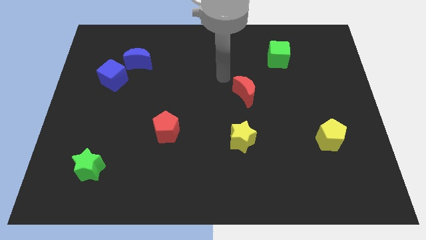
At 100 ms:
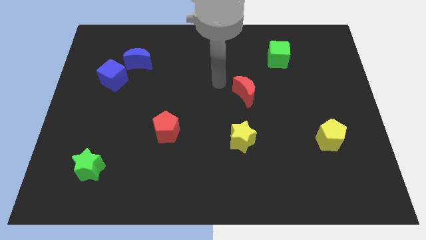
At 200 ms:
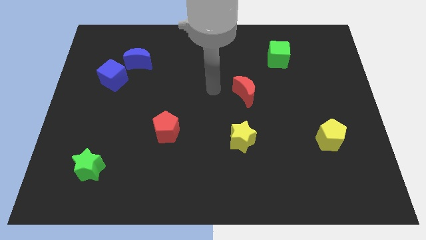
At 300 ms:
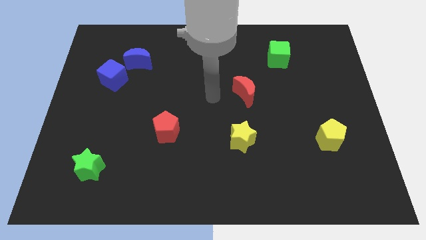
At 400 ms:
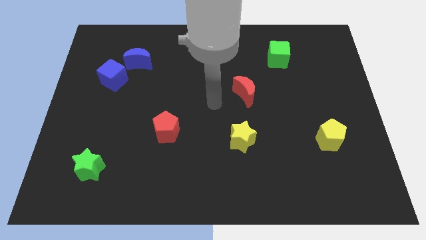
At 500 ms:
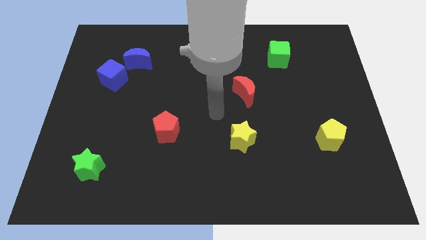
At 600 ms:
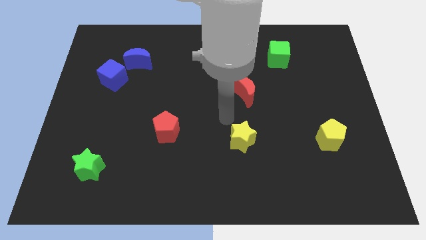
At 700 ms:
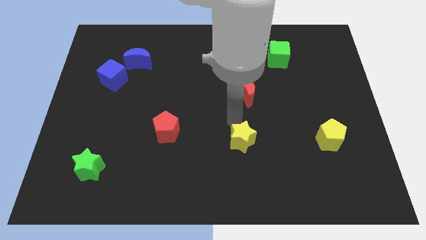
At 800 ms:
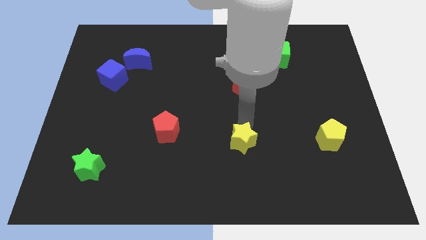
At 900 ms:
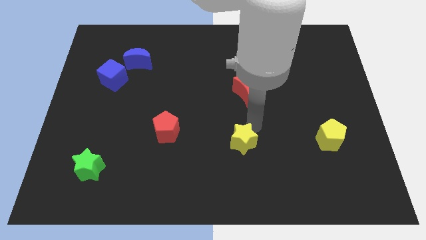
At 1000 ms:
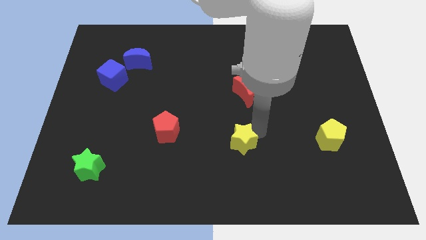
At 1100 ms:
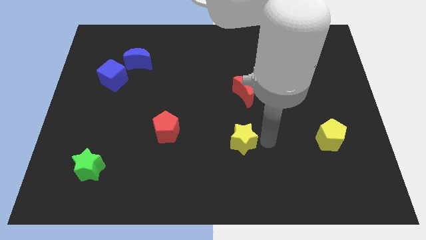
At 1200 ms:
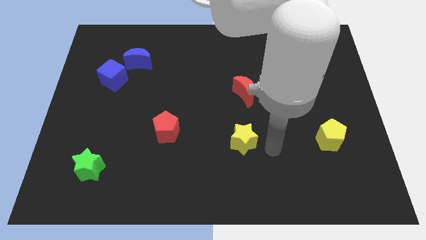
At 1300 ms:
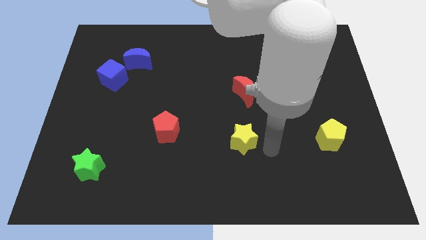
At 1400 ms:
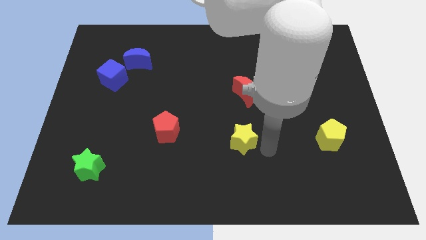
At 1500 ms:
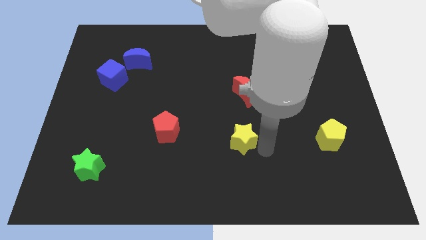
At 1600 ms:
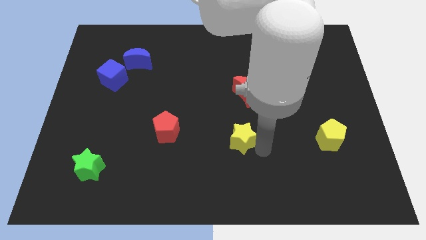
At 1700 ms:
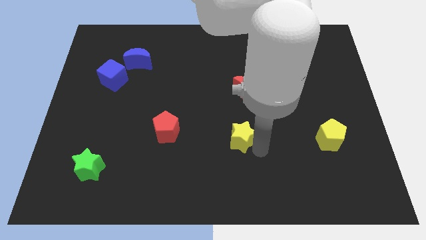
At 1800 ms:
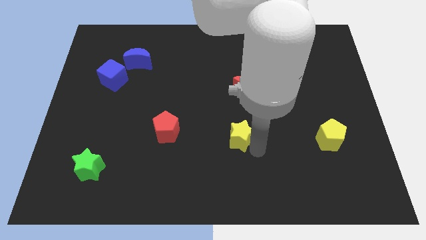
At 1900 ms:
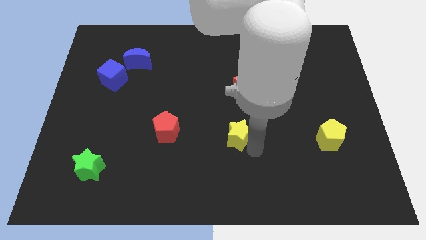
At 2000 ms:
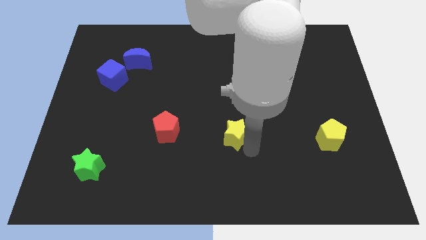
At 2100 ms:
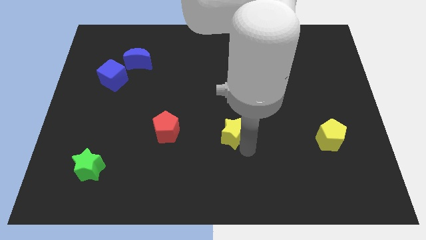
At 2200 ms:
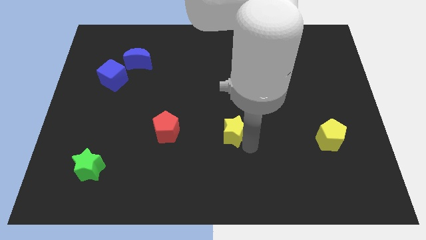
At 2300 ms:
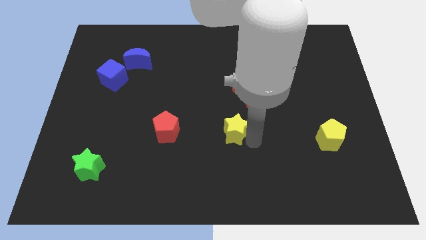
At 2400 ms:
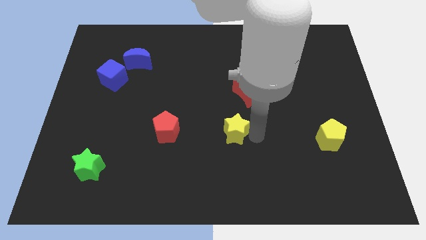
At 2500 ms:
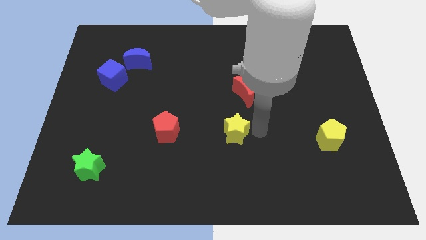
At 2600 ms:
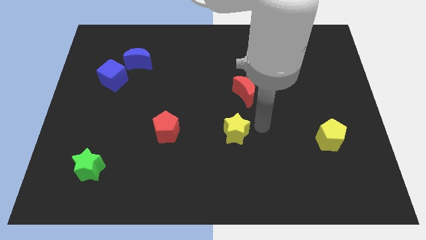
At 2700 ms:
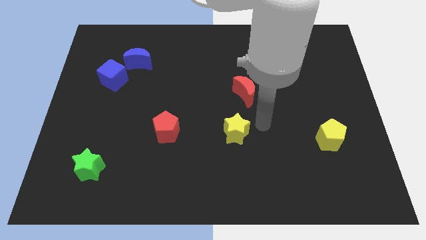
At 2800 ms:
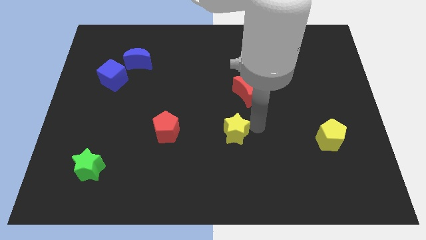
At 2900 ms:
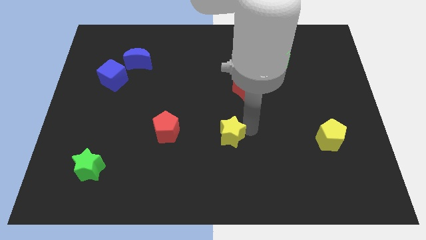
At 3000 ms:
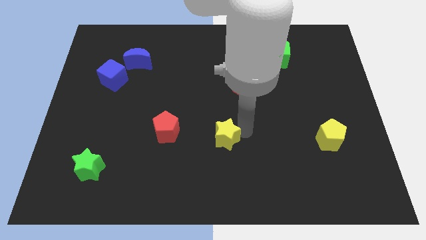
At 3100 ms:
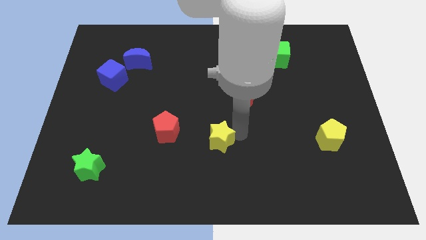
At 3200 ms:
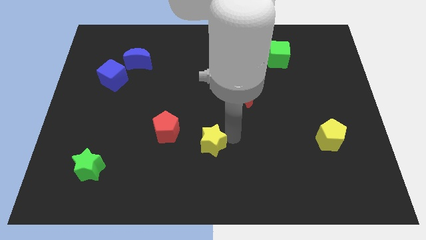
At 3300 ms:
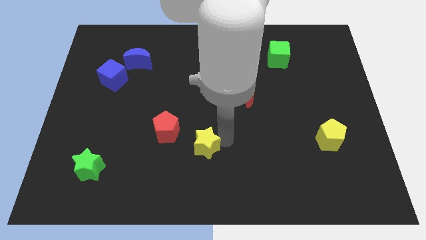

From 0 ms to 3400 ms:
slightly push the yellow star to the left

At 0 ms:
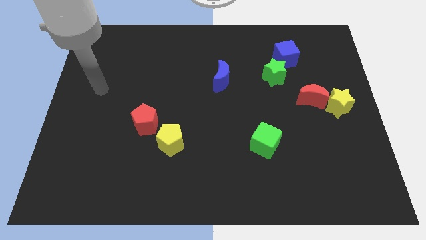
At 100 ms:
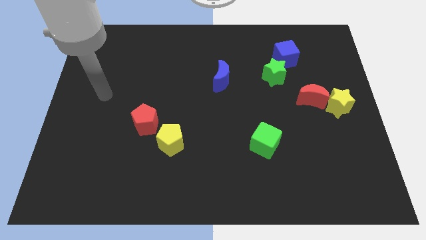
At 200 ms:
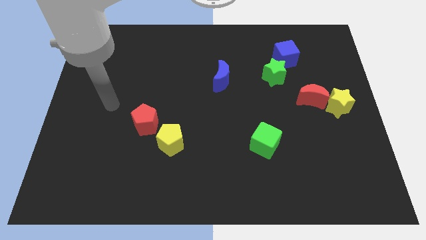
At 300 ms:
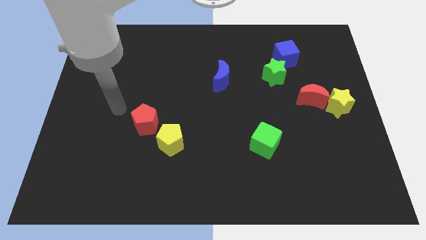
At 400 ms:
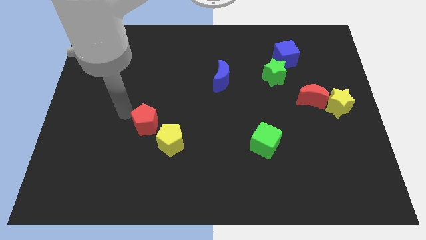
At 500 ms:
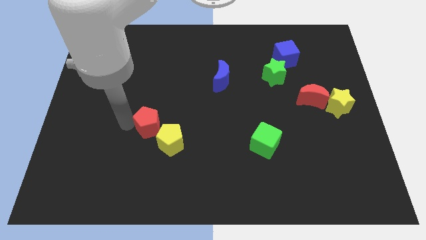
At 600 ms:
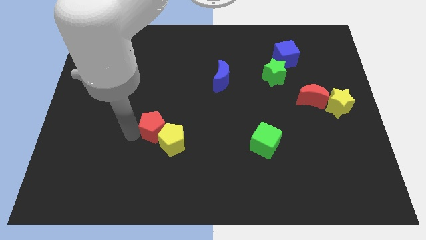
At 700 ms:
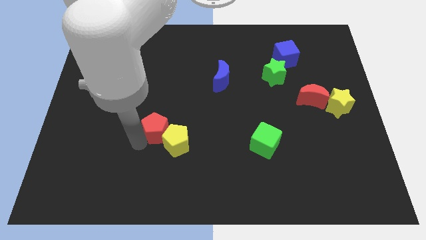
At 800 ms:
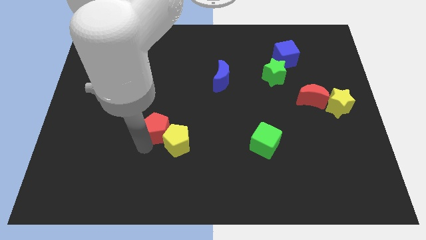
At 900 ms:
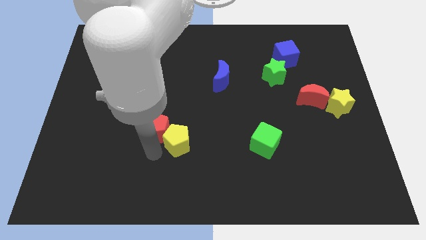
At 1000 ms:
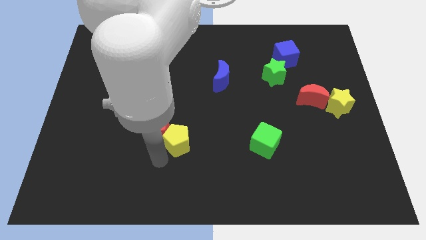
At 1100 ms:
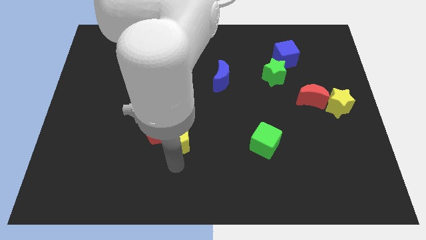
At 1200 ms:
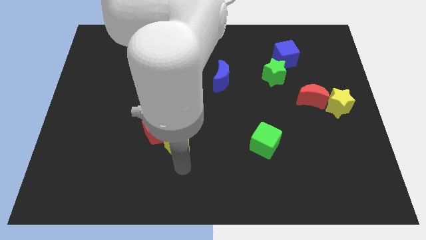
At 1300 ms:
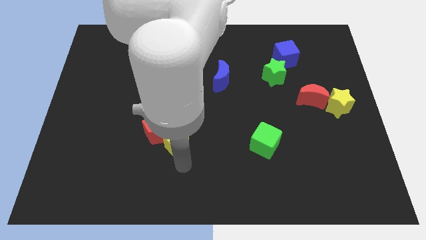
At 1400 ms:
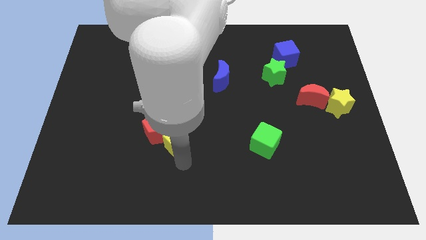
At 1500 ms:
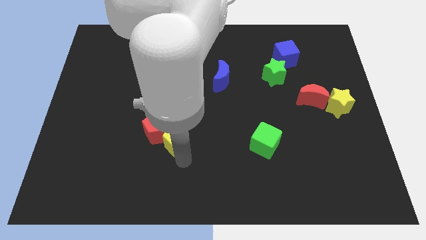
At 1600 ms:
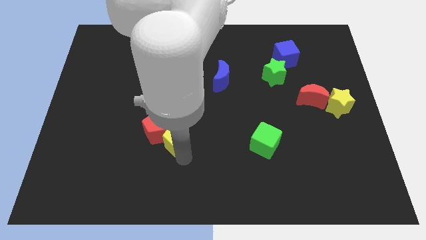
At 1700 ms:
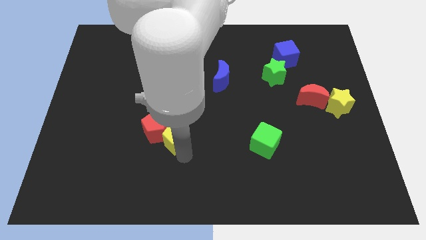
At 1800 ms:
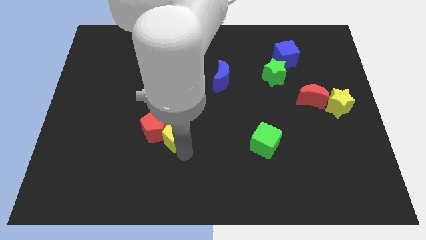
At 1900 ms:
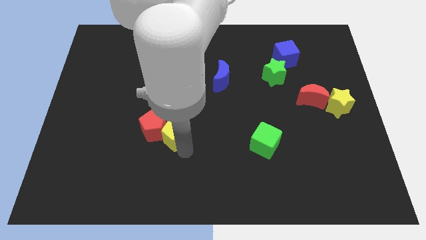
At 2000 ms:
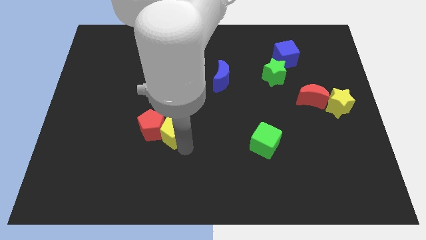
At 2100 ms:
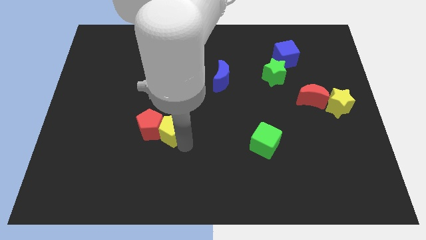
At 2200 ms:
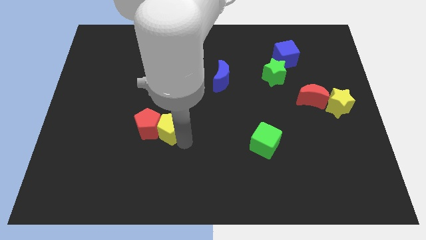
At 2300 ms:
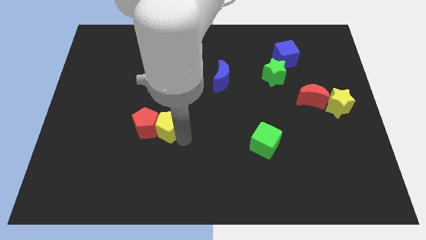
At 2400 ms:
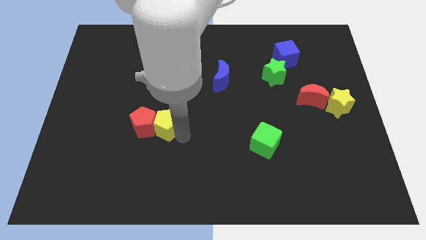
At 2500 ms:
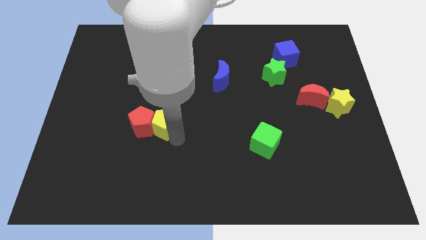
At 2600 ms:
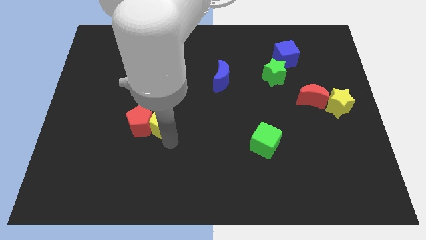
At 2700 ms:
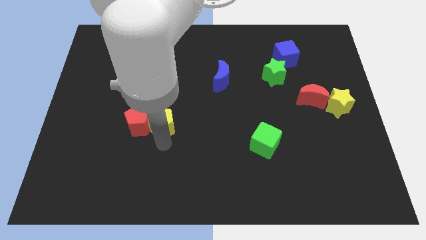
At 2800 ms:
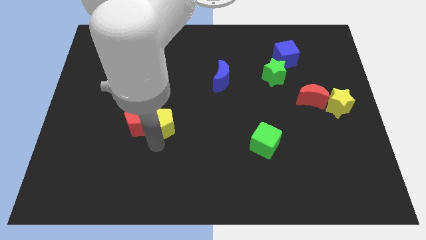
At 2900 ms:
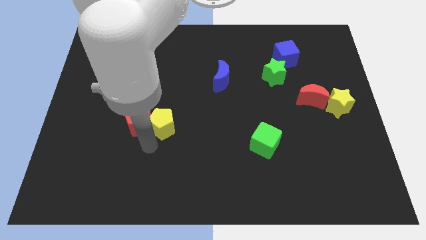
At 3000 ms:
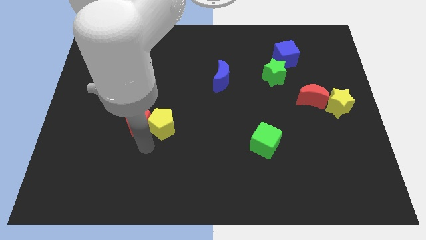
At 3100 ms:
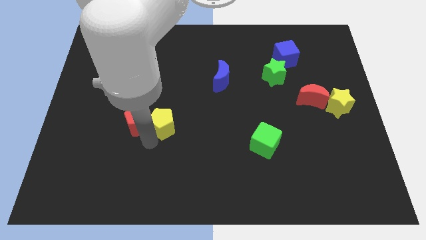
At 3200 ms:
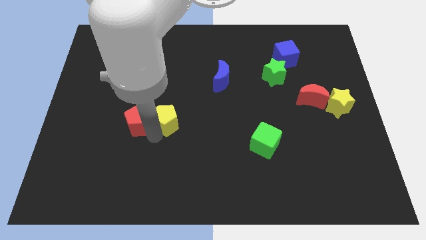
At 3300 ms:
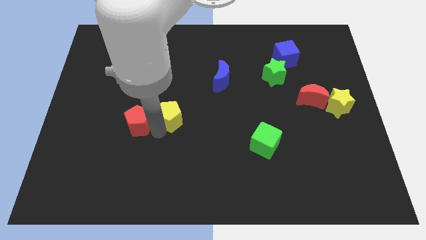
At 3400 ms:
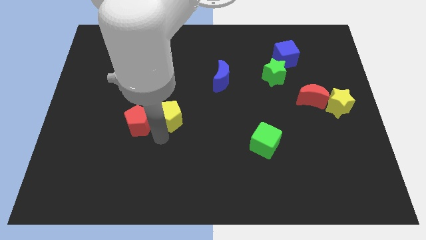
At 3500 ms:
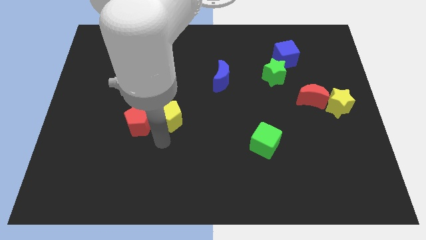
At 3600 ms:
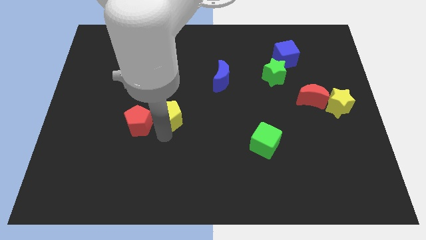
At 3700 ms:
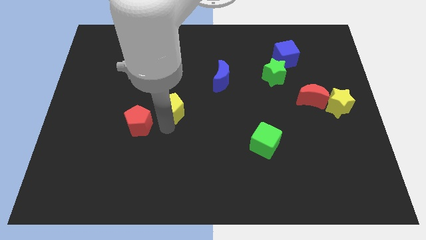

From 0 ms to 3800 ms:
move the yellow pentagon upwards a little bit

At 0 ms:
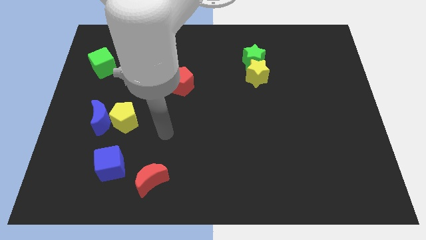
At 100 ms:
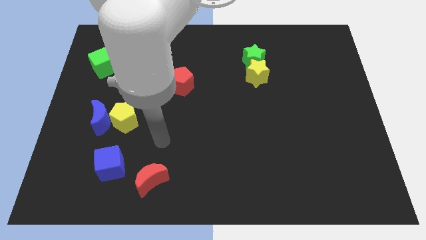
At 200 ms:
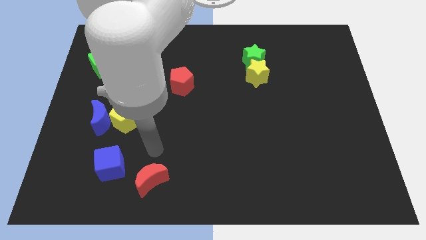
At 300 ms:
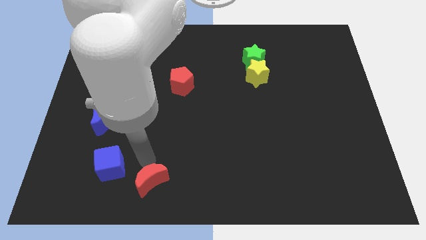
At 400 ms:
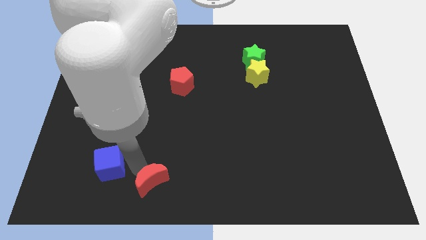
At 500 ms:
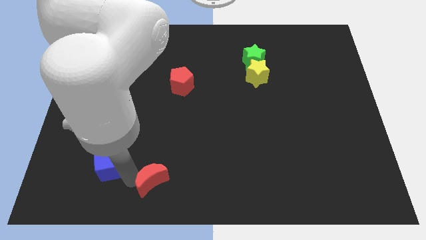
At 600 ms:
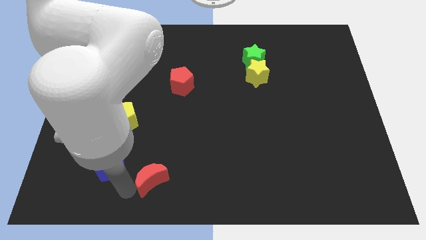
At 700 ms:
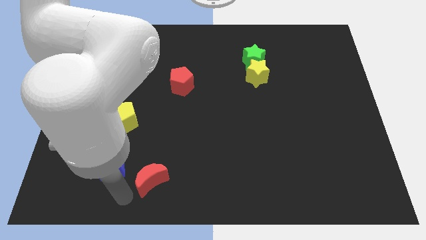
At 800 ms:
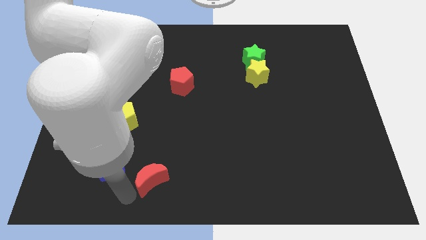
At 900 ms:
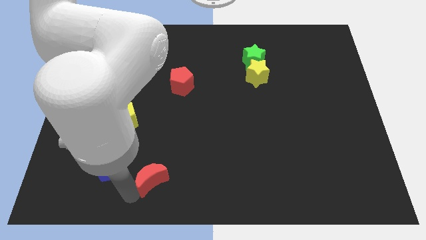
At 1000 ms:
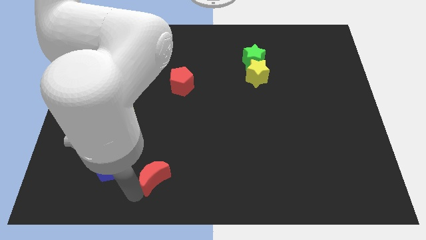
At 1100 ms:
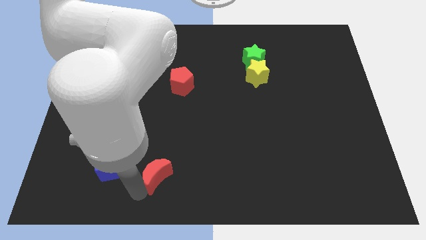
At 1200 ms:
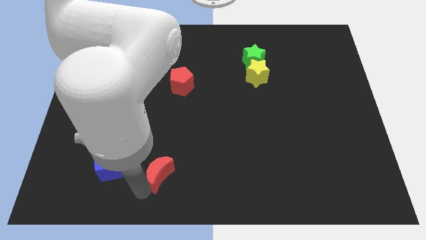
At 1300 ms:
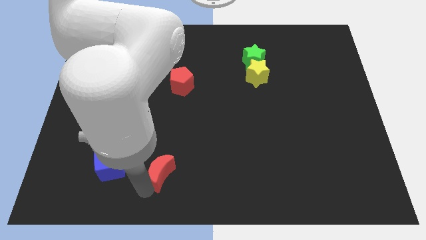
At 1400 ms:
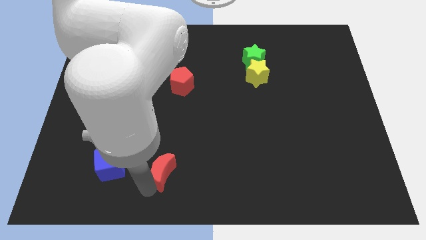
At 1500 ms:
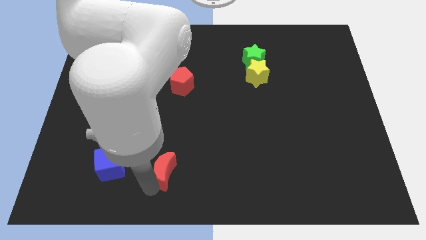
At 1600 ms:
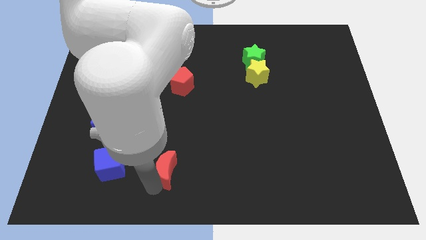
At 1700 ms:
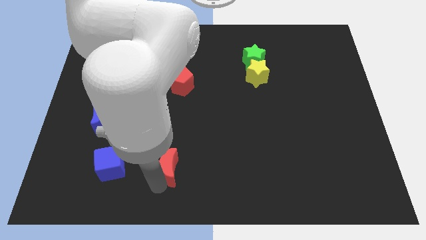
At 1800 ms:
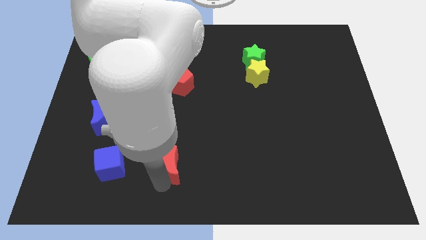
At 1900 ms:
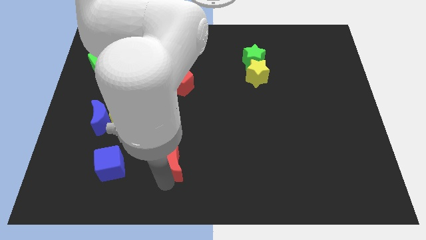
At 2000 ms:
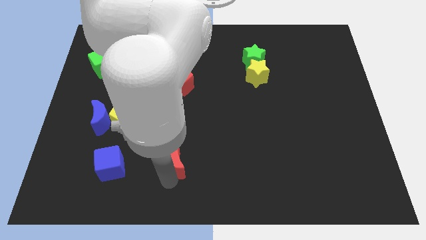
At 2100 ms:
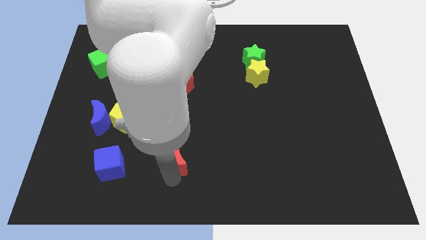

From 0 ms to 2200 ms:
move the red moon diagonally up and to the right somewhat
